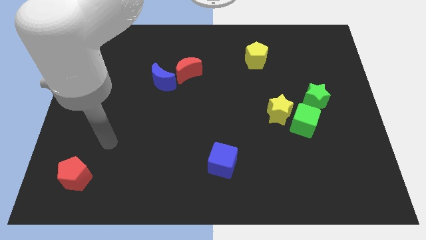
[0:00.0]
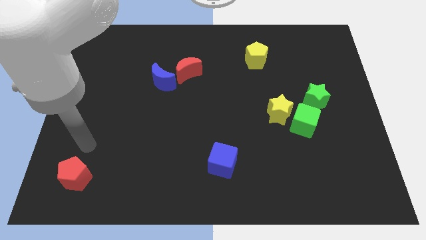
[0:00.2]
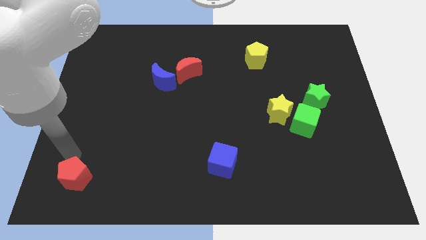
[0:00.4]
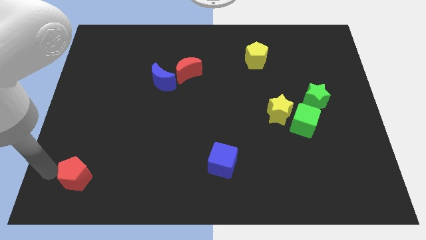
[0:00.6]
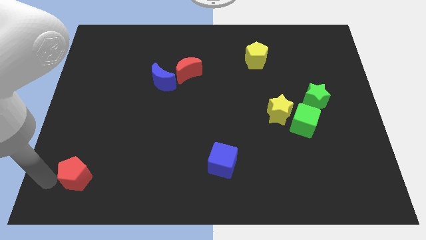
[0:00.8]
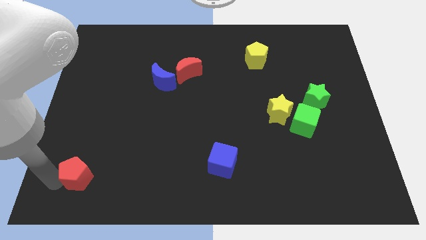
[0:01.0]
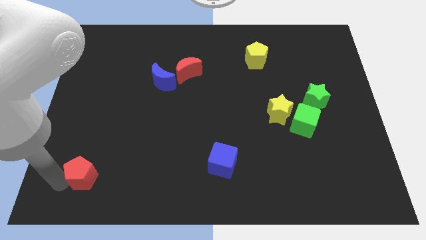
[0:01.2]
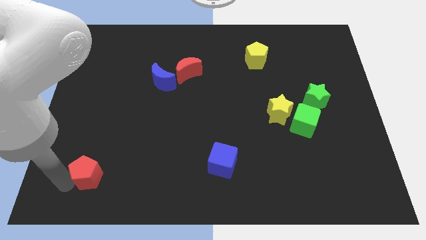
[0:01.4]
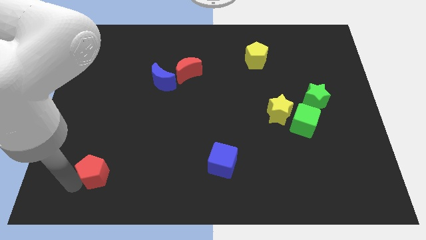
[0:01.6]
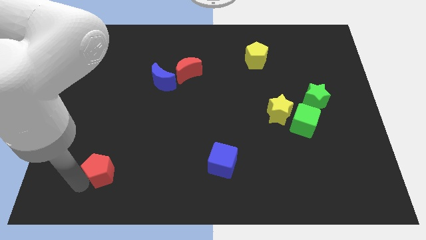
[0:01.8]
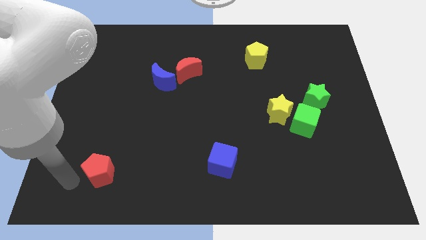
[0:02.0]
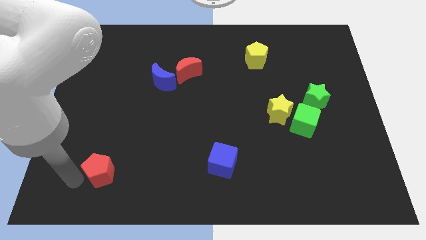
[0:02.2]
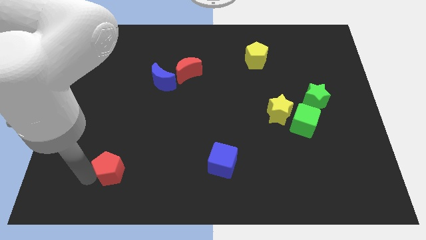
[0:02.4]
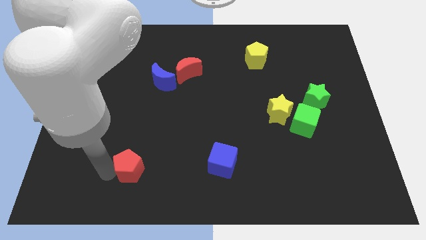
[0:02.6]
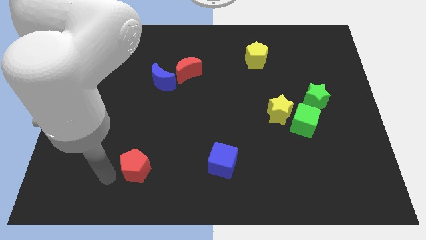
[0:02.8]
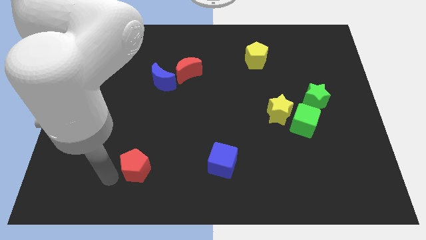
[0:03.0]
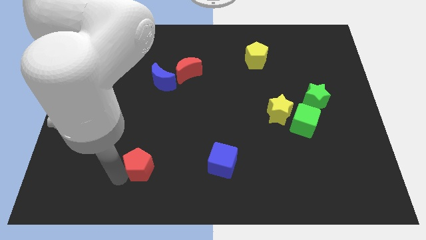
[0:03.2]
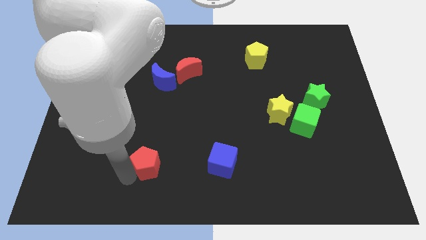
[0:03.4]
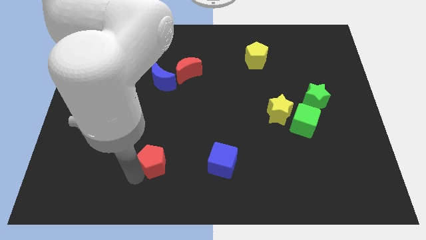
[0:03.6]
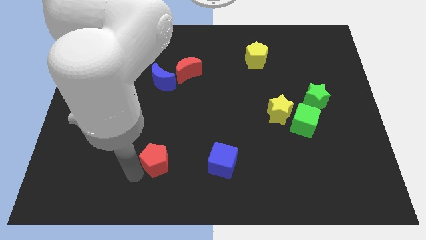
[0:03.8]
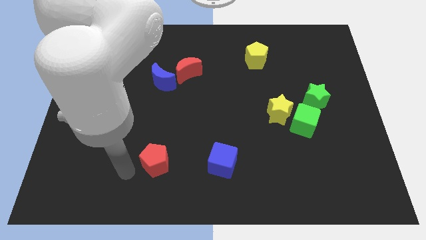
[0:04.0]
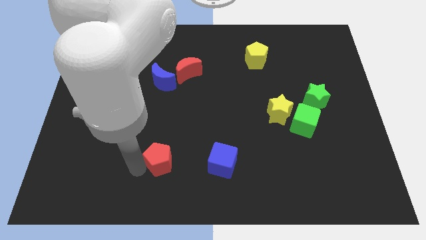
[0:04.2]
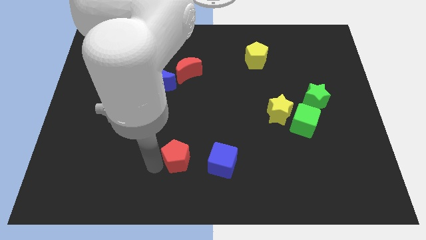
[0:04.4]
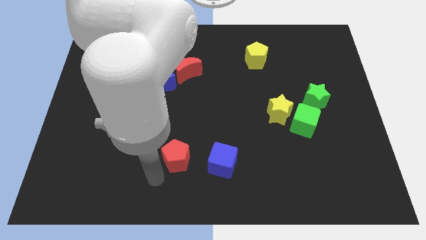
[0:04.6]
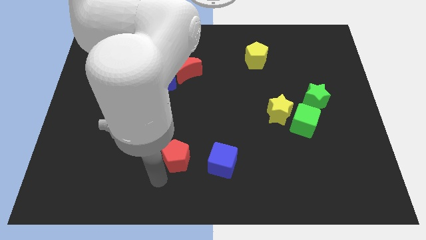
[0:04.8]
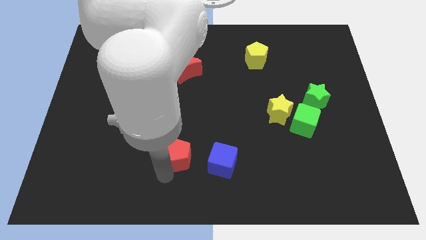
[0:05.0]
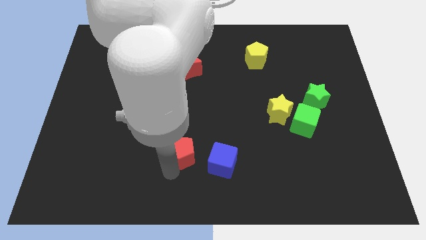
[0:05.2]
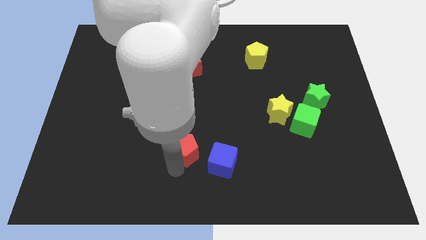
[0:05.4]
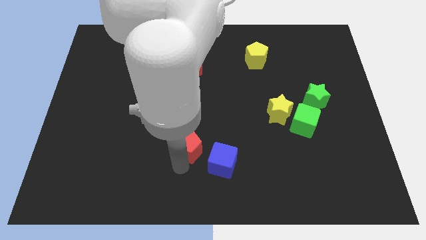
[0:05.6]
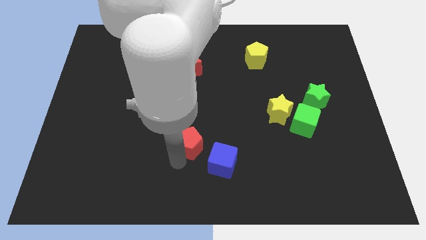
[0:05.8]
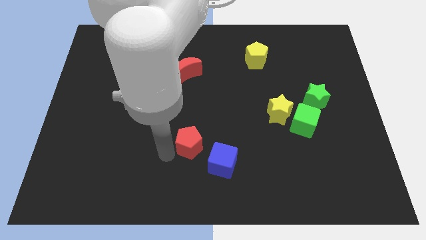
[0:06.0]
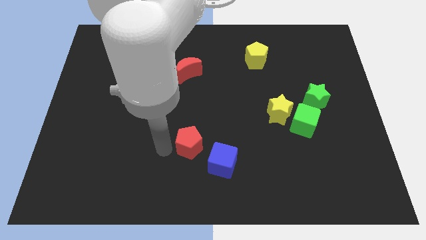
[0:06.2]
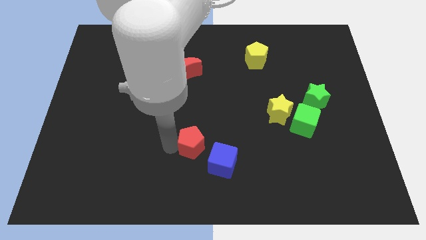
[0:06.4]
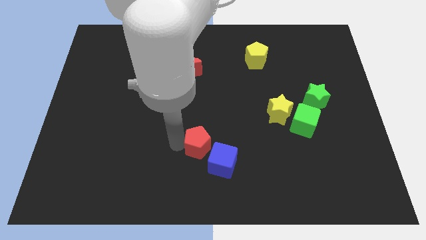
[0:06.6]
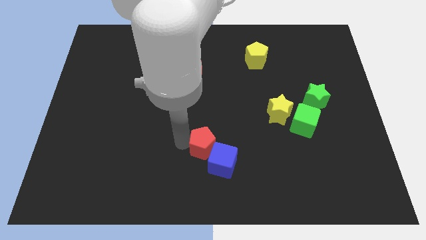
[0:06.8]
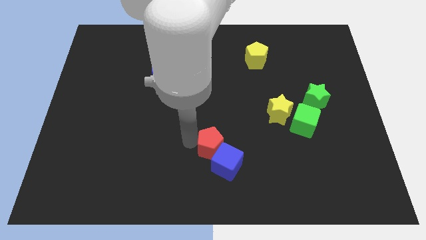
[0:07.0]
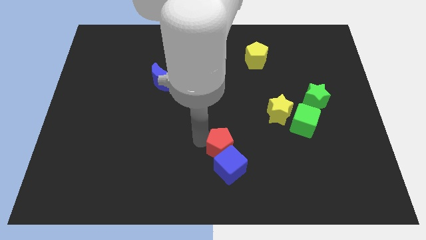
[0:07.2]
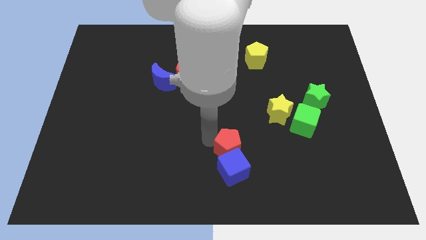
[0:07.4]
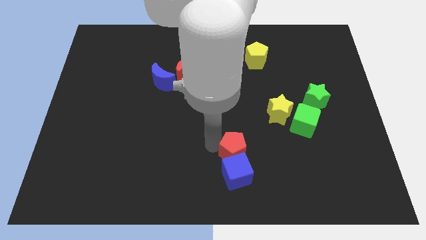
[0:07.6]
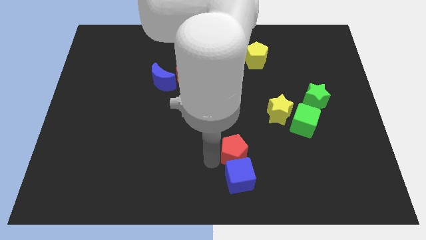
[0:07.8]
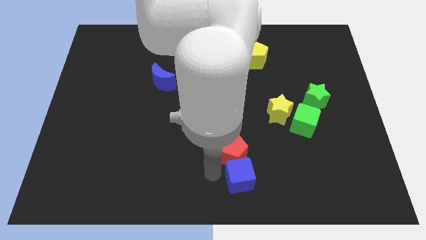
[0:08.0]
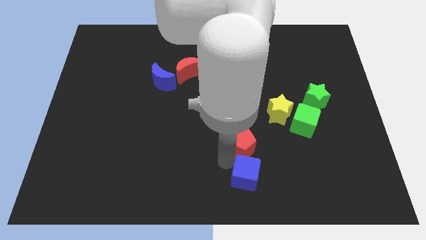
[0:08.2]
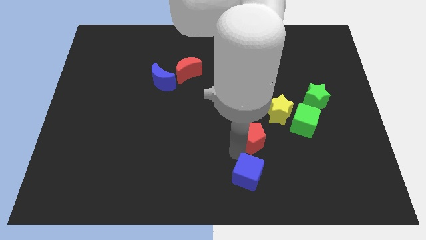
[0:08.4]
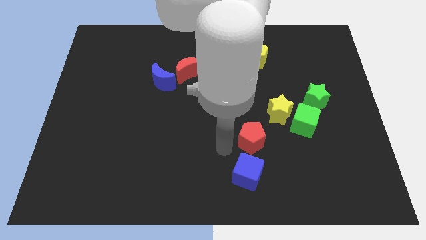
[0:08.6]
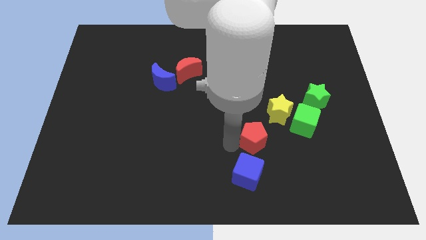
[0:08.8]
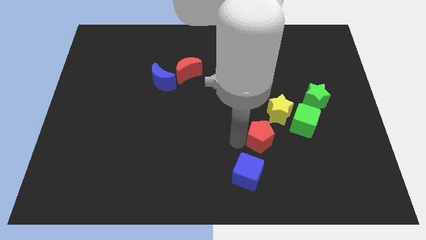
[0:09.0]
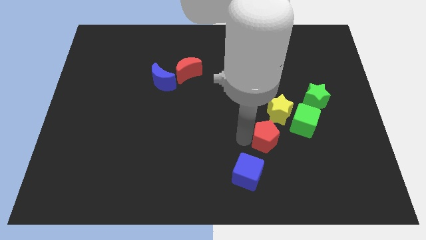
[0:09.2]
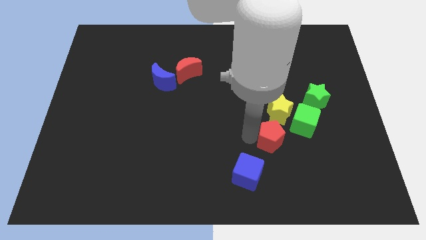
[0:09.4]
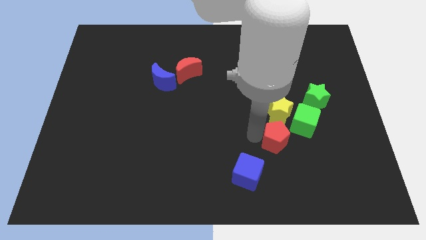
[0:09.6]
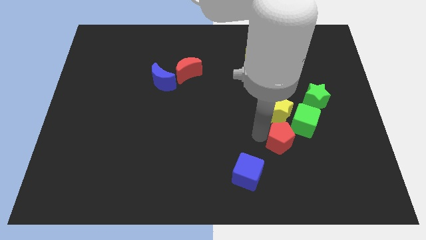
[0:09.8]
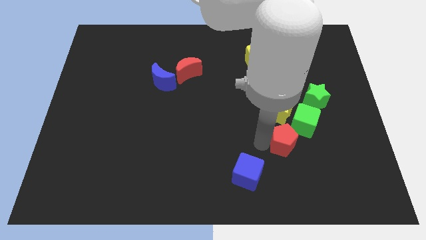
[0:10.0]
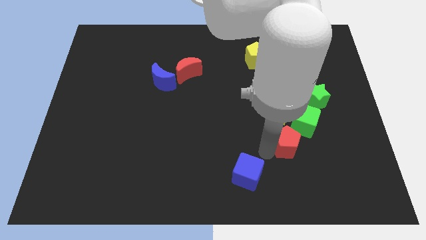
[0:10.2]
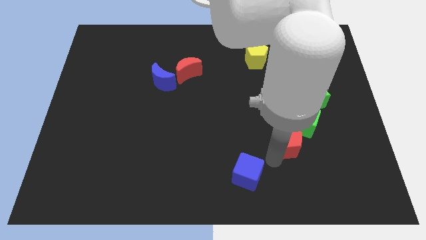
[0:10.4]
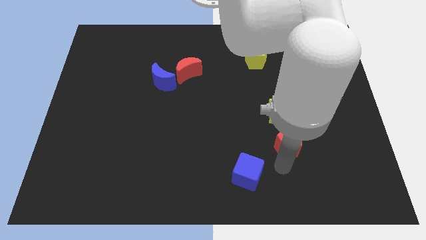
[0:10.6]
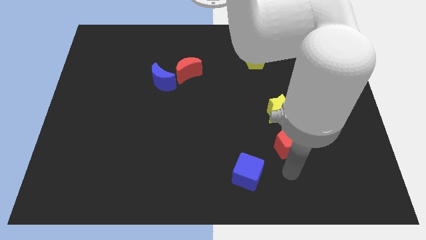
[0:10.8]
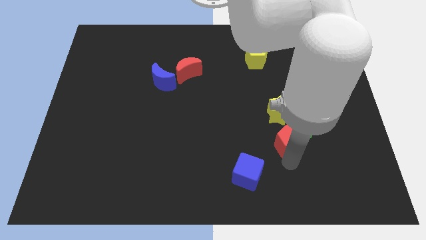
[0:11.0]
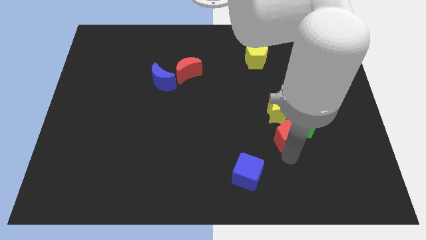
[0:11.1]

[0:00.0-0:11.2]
slide the red pentagon to the green cube

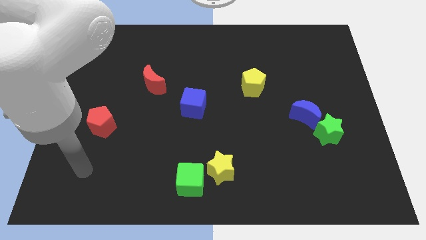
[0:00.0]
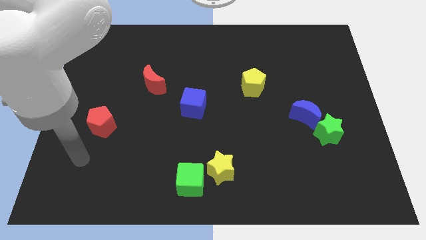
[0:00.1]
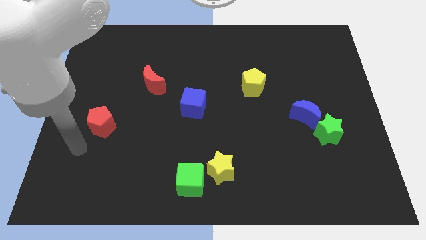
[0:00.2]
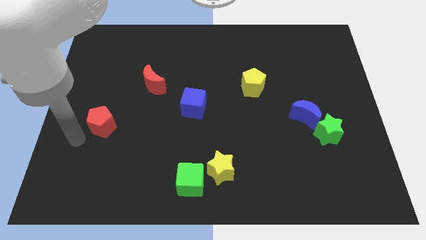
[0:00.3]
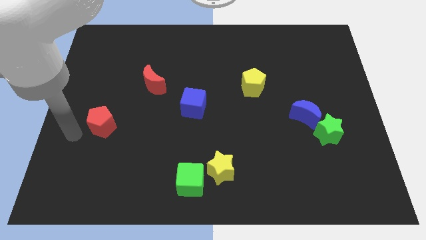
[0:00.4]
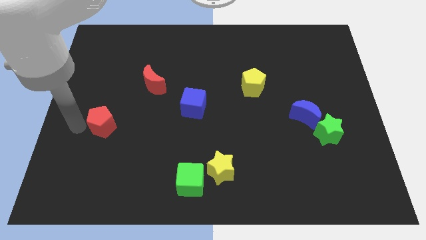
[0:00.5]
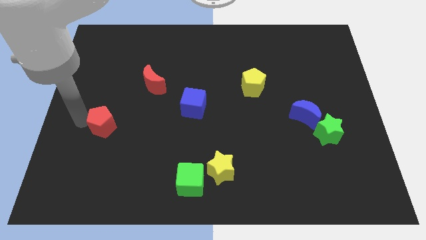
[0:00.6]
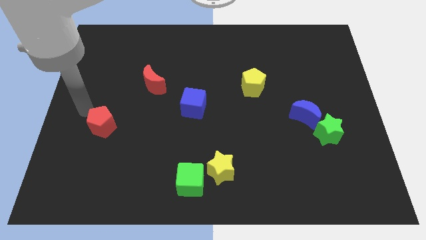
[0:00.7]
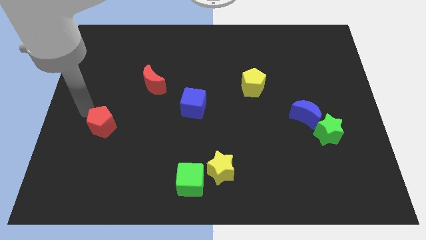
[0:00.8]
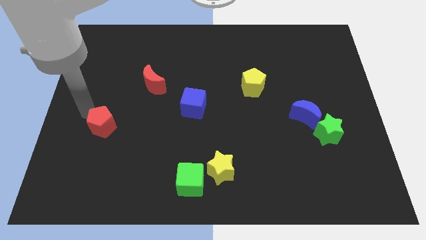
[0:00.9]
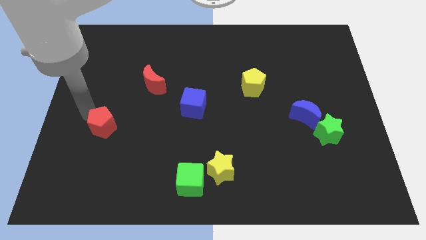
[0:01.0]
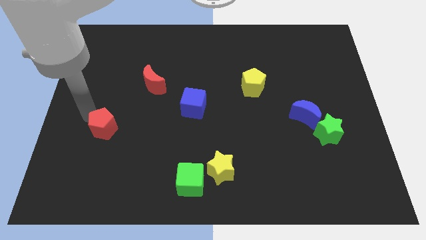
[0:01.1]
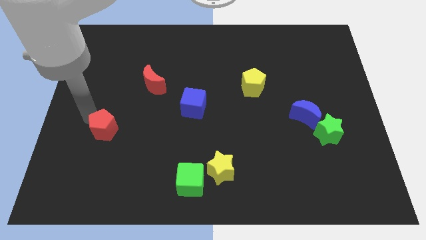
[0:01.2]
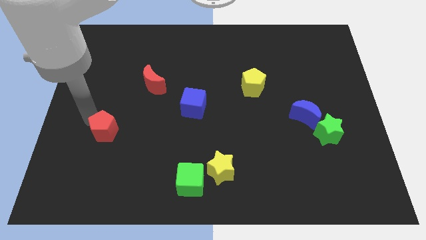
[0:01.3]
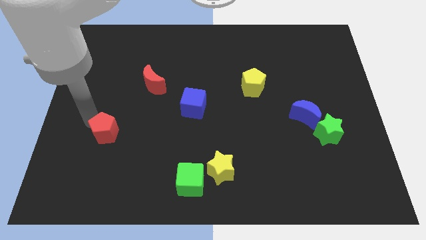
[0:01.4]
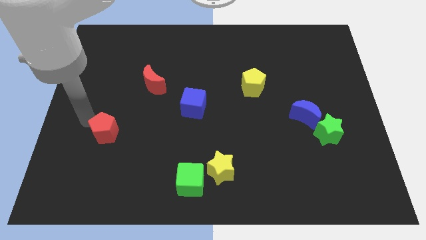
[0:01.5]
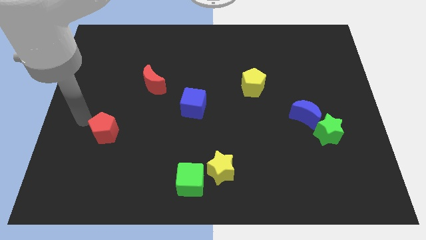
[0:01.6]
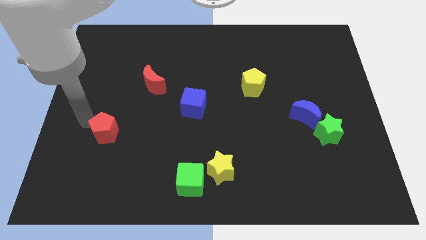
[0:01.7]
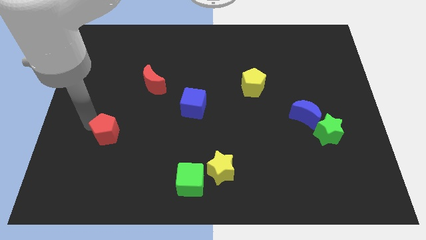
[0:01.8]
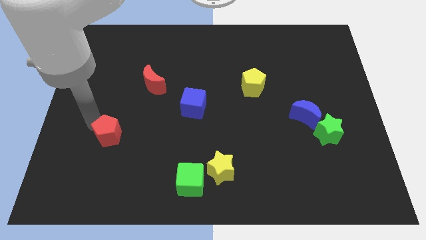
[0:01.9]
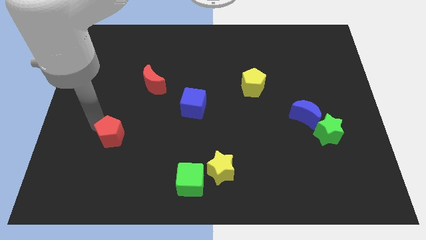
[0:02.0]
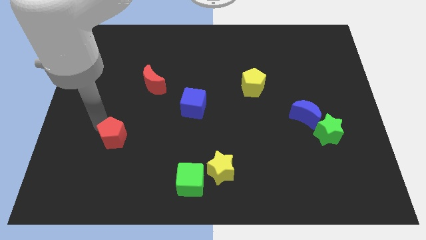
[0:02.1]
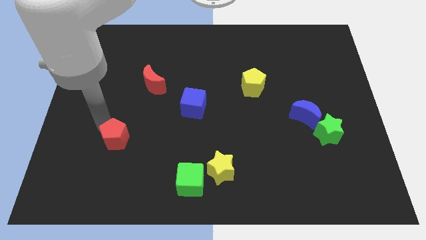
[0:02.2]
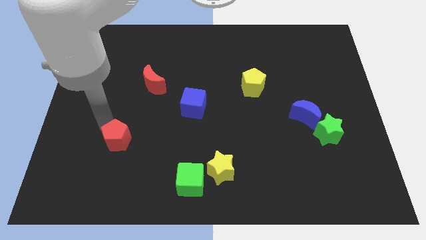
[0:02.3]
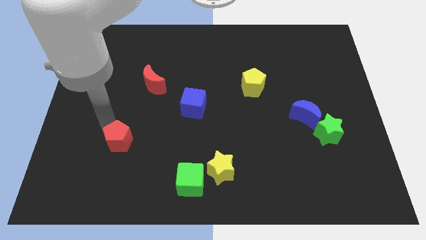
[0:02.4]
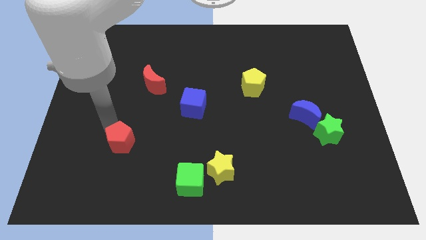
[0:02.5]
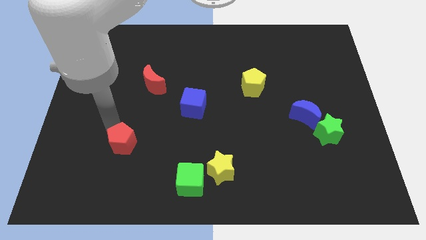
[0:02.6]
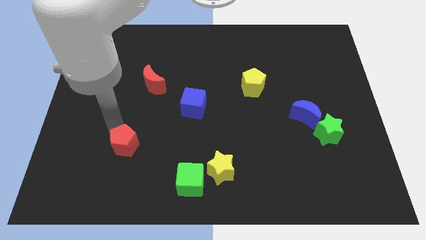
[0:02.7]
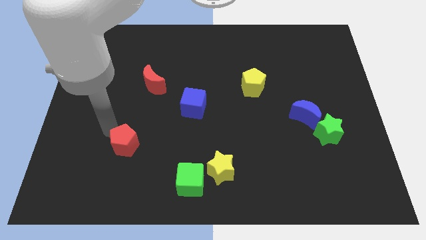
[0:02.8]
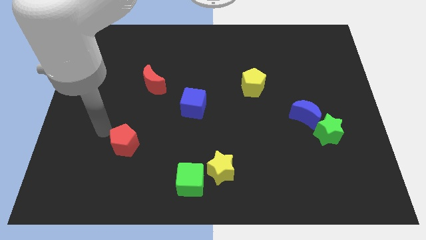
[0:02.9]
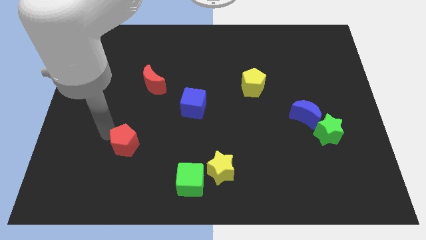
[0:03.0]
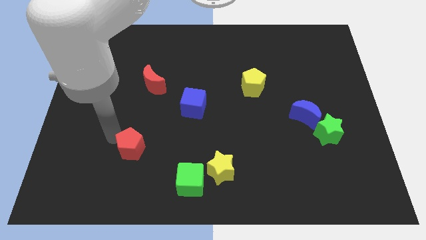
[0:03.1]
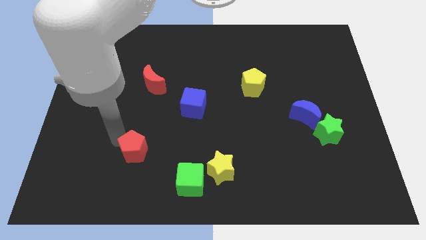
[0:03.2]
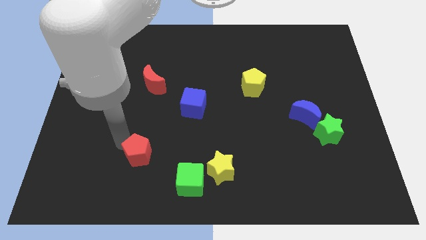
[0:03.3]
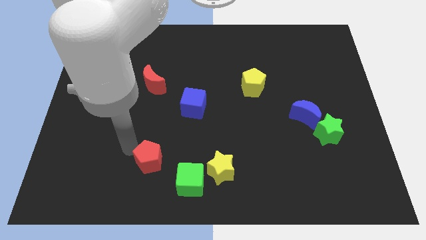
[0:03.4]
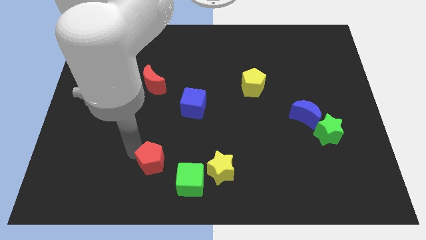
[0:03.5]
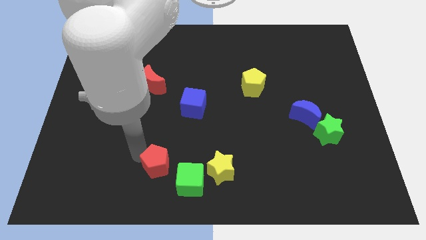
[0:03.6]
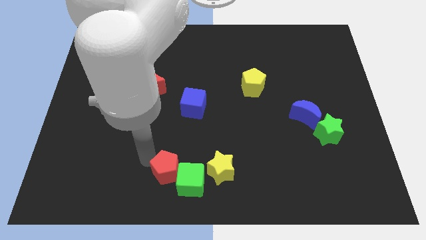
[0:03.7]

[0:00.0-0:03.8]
put the red pentagon next to the green cube
